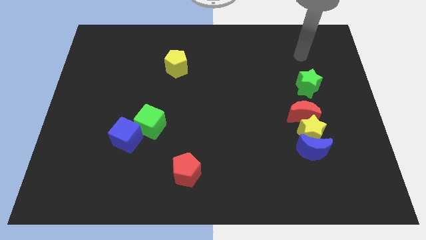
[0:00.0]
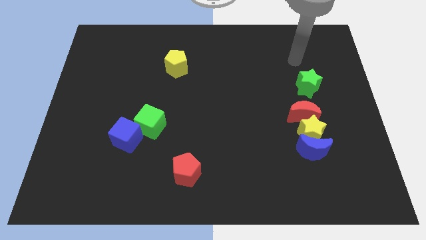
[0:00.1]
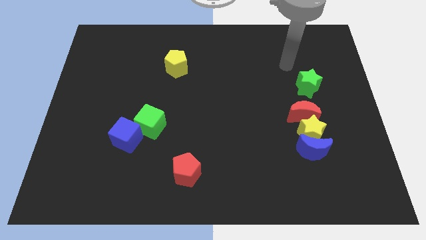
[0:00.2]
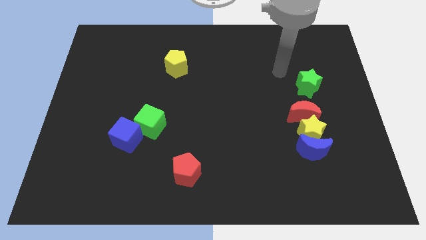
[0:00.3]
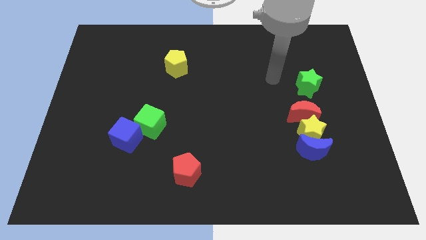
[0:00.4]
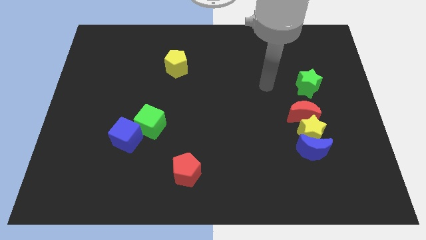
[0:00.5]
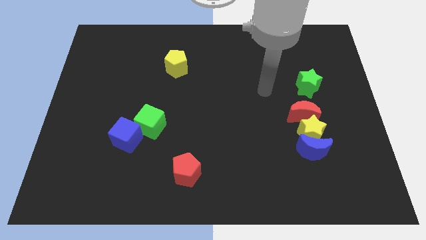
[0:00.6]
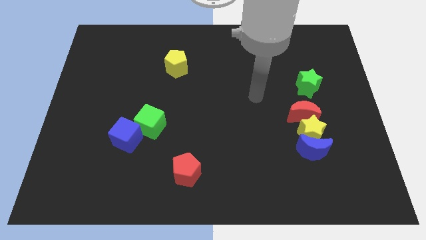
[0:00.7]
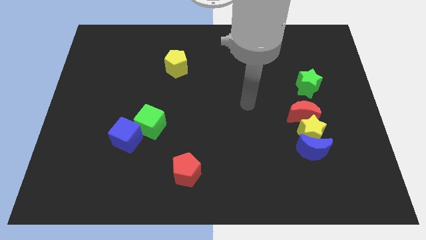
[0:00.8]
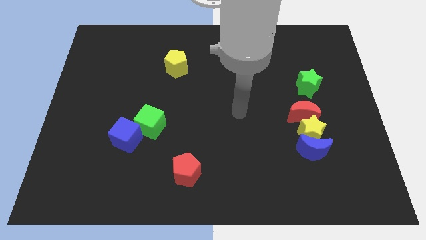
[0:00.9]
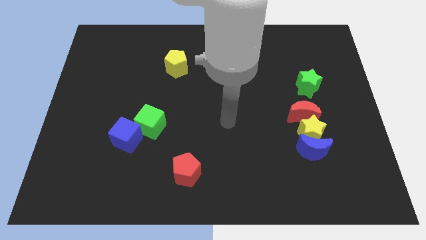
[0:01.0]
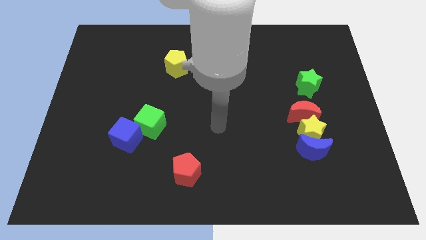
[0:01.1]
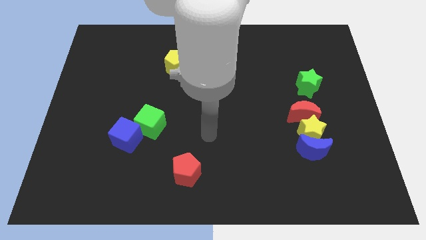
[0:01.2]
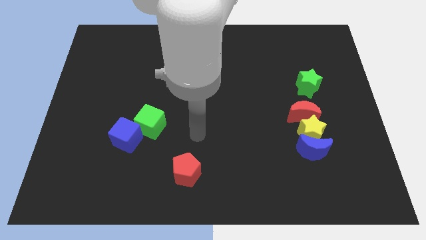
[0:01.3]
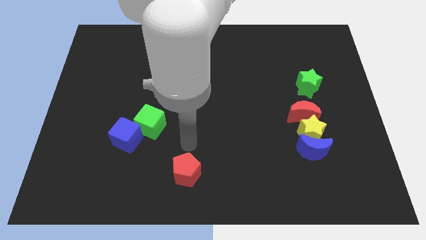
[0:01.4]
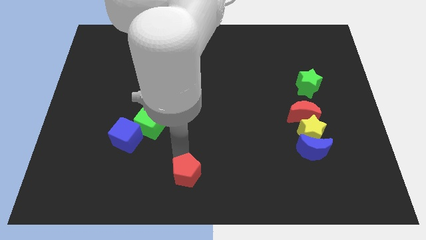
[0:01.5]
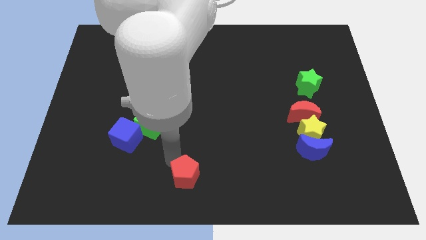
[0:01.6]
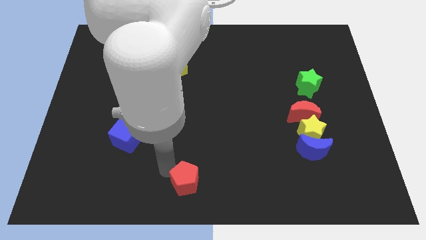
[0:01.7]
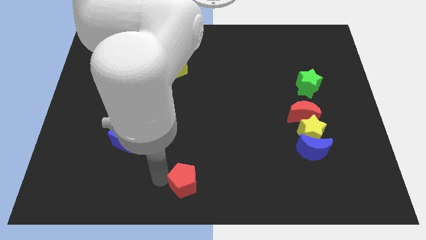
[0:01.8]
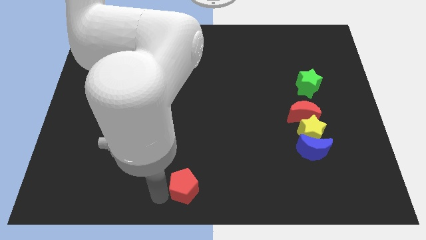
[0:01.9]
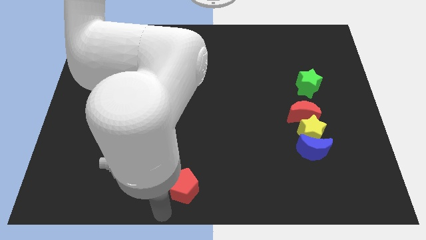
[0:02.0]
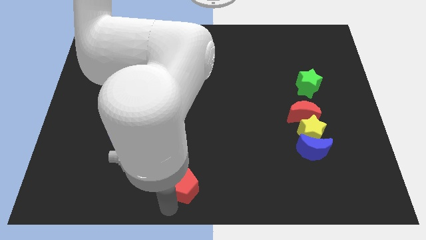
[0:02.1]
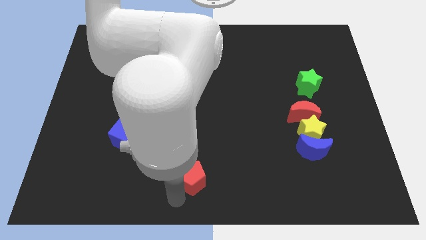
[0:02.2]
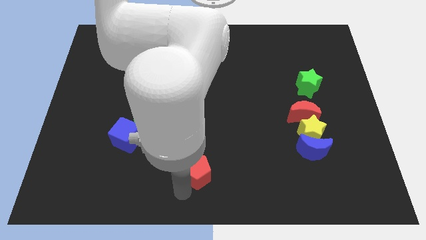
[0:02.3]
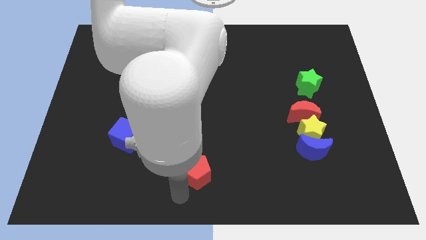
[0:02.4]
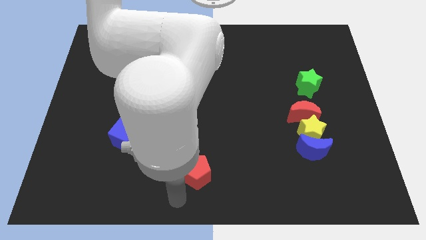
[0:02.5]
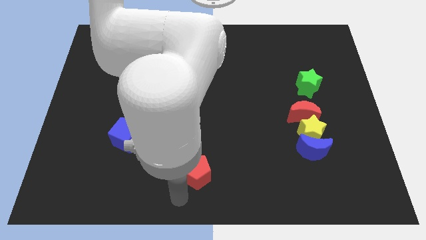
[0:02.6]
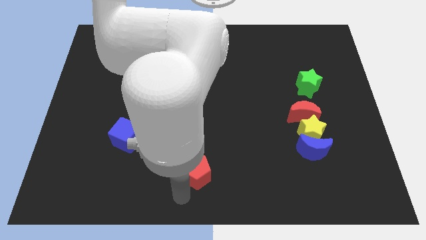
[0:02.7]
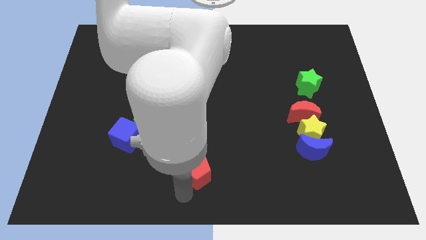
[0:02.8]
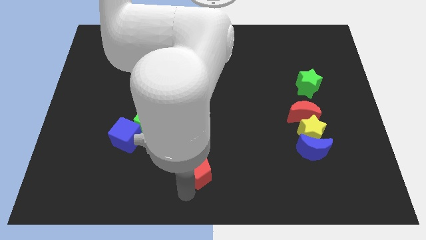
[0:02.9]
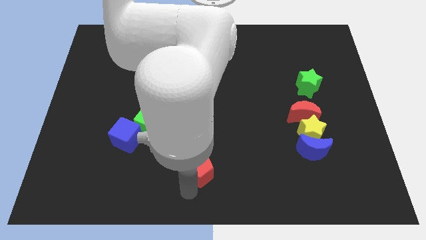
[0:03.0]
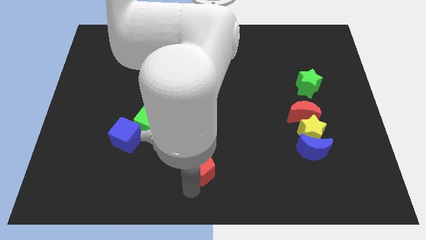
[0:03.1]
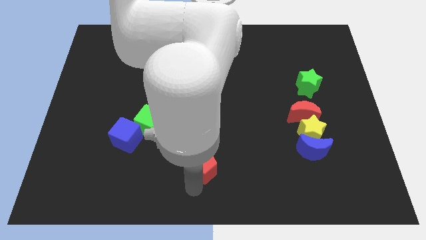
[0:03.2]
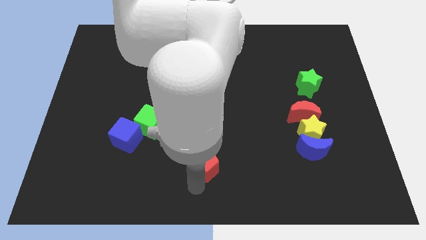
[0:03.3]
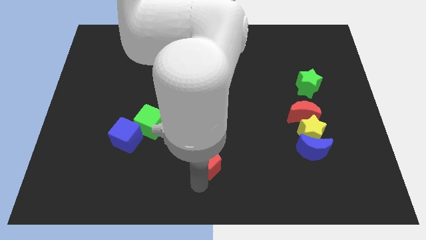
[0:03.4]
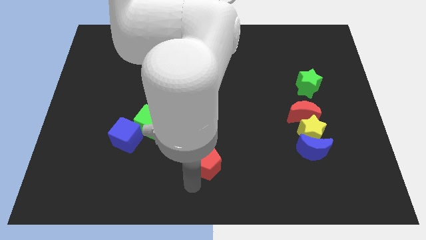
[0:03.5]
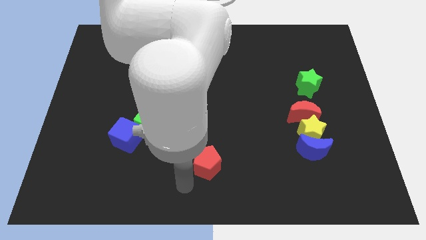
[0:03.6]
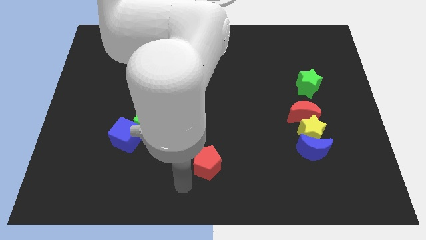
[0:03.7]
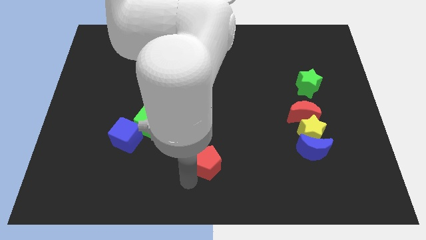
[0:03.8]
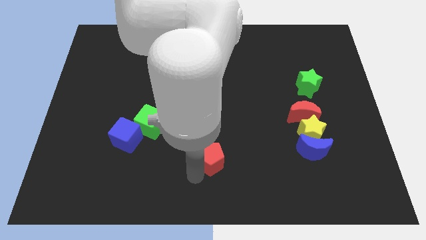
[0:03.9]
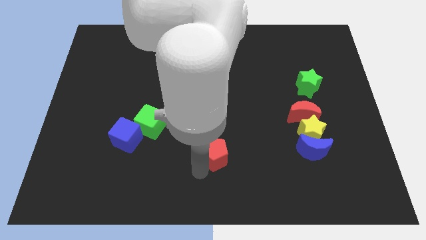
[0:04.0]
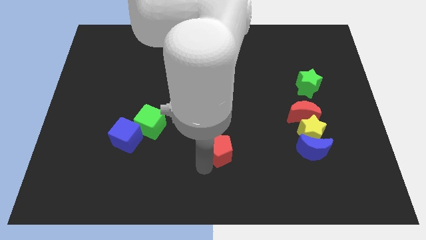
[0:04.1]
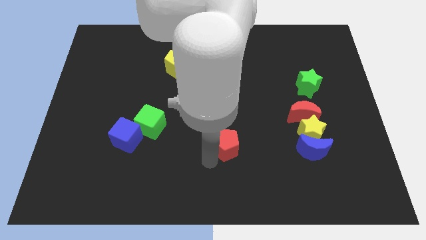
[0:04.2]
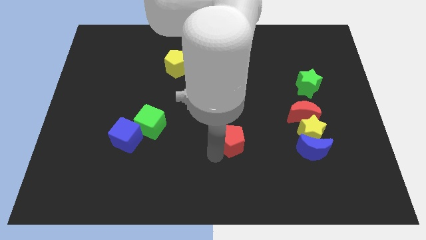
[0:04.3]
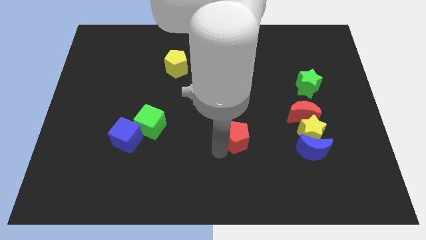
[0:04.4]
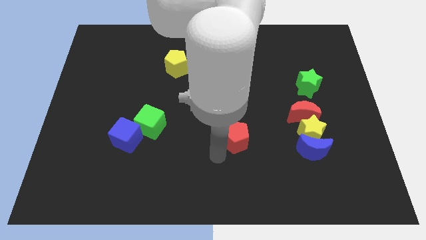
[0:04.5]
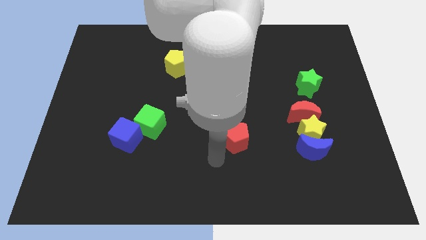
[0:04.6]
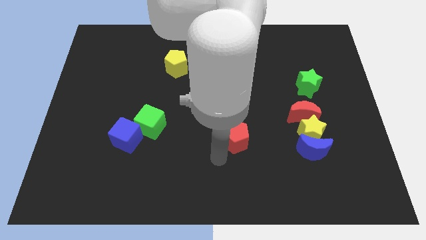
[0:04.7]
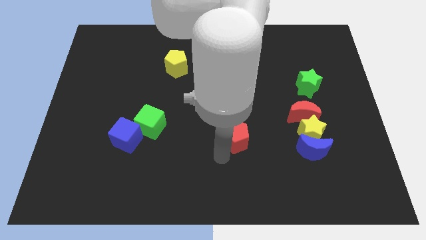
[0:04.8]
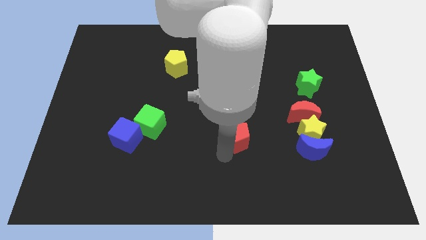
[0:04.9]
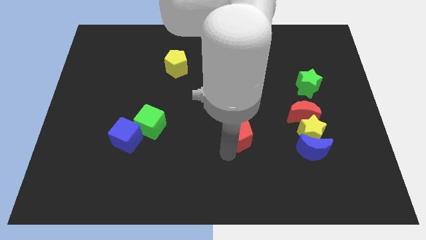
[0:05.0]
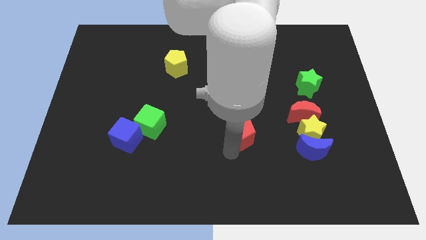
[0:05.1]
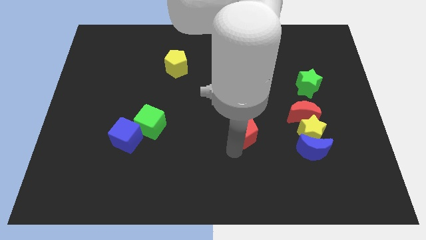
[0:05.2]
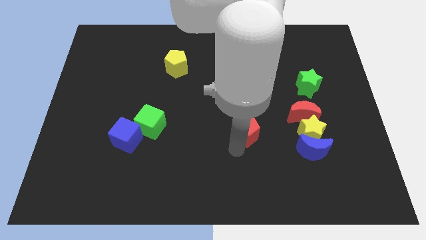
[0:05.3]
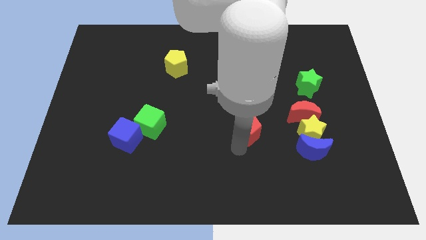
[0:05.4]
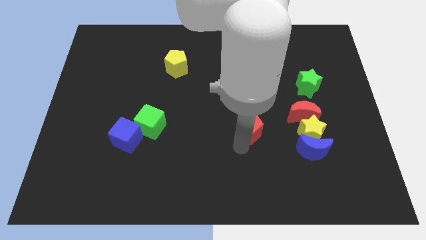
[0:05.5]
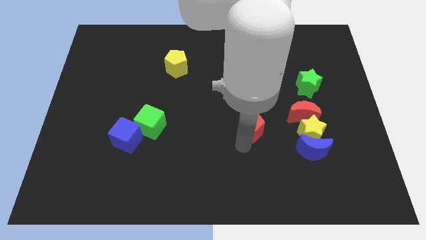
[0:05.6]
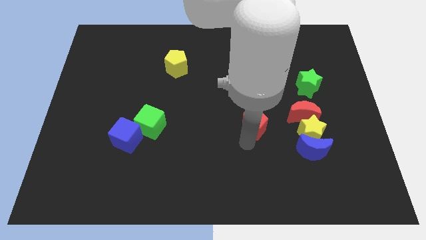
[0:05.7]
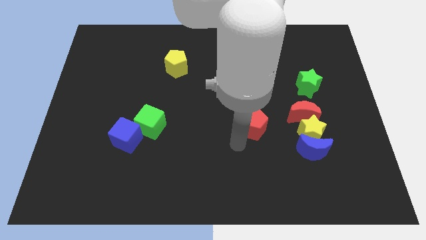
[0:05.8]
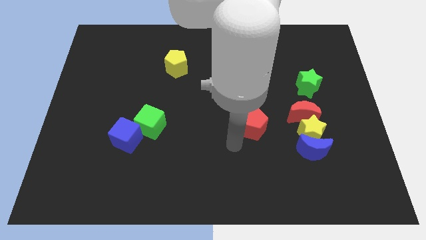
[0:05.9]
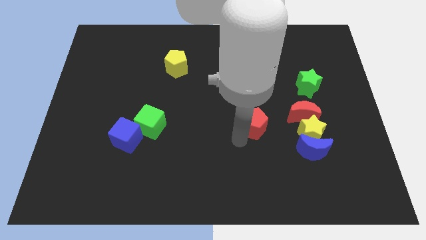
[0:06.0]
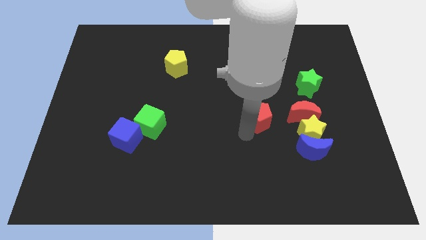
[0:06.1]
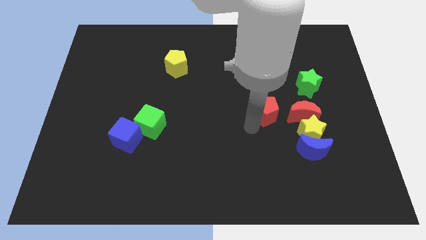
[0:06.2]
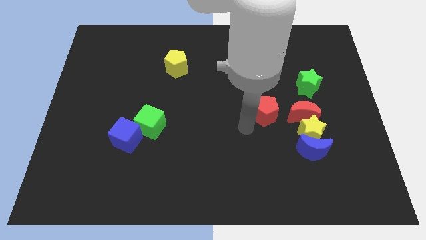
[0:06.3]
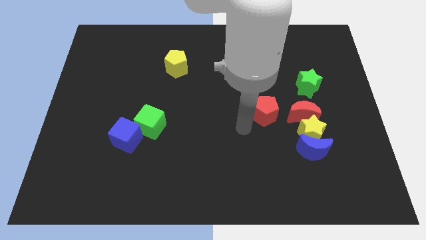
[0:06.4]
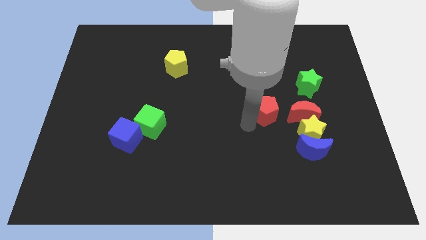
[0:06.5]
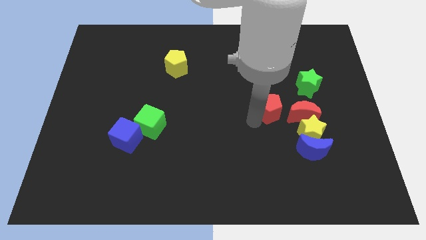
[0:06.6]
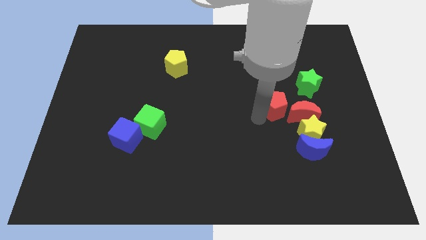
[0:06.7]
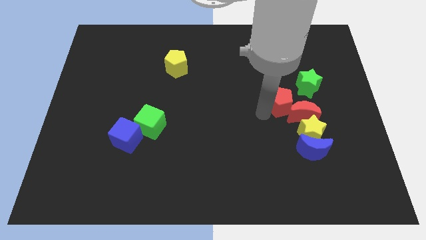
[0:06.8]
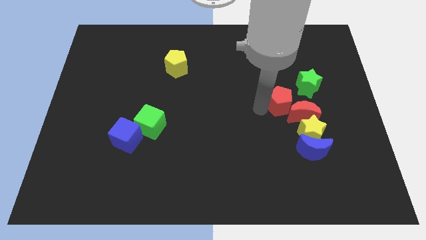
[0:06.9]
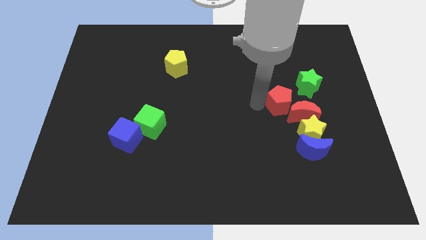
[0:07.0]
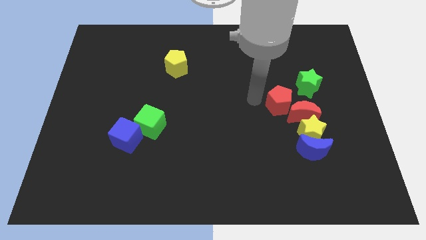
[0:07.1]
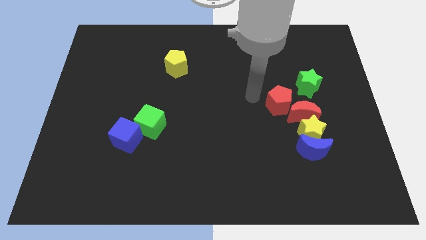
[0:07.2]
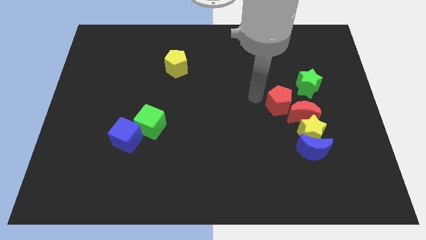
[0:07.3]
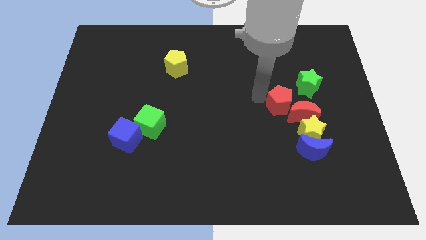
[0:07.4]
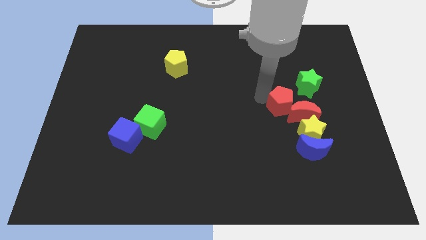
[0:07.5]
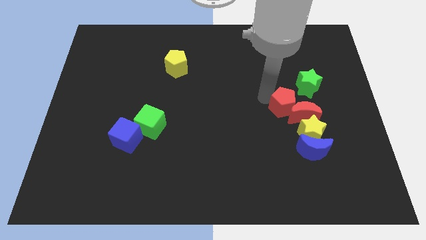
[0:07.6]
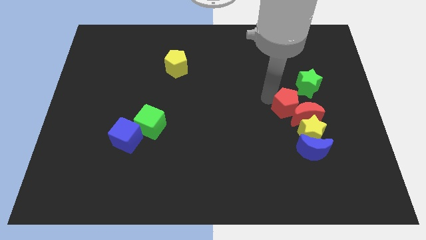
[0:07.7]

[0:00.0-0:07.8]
move the red pentagon to the top of the blue moon

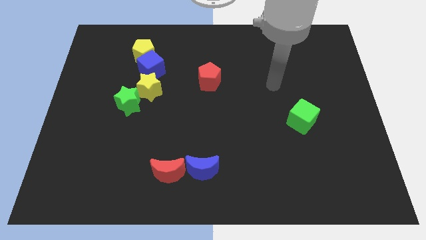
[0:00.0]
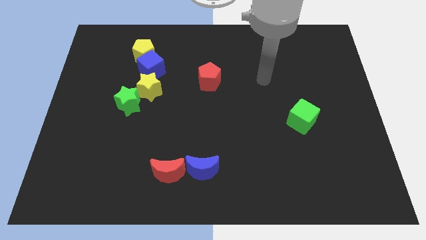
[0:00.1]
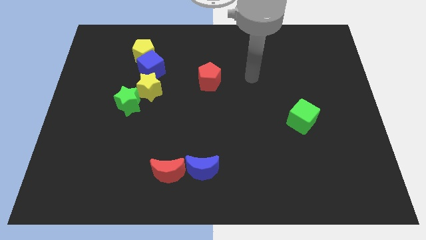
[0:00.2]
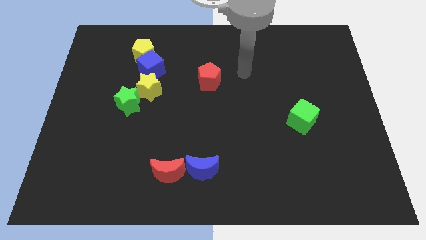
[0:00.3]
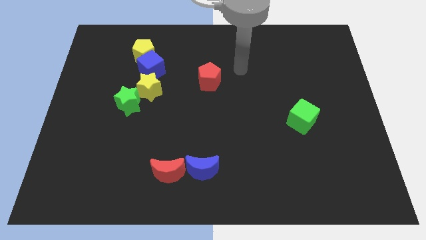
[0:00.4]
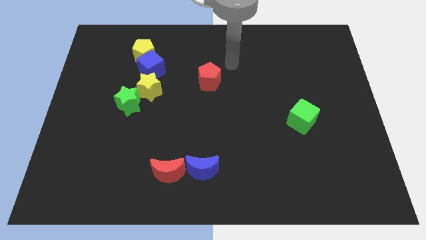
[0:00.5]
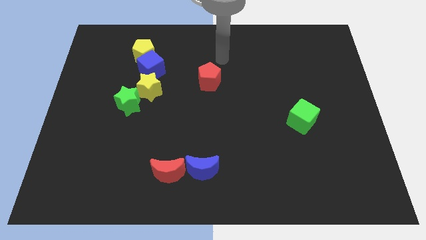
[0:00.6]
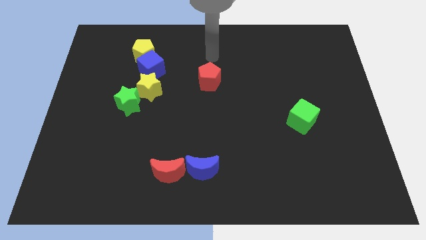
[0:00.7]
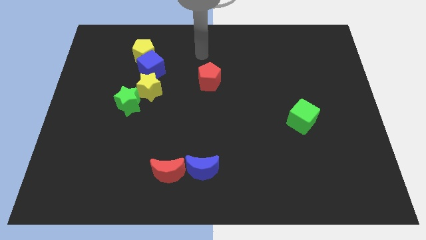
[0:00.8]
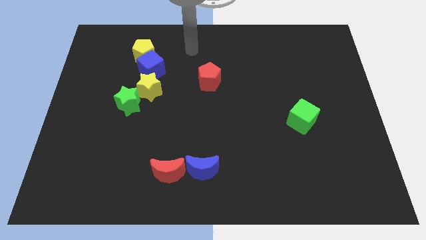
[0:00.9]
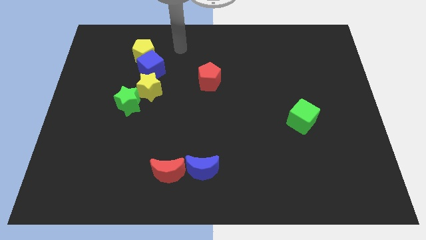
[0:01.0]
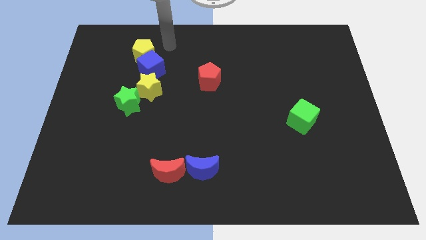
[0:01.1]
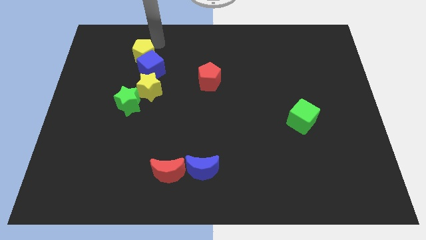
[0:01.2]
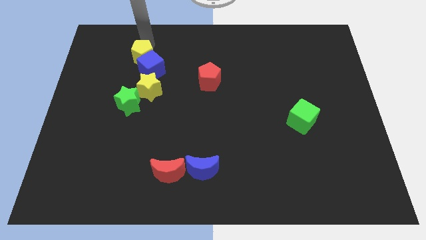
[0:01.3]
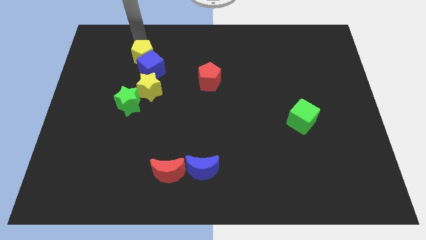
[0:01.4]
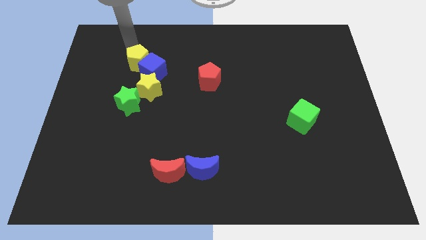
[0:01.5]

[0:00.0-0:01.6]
put the blue cube to the right of the yellow pentagon
